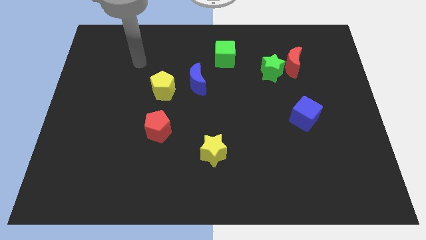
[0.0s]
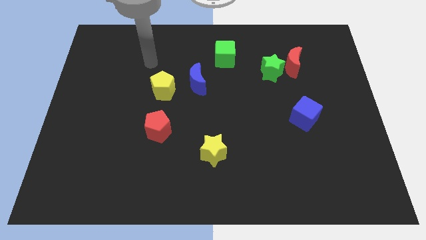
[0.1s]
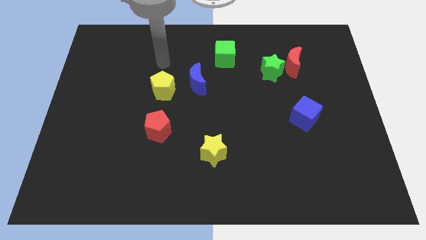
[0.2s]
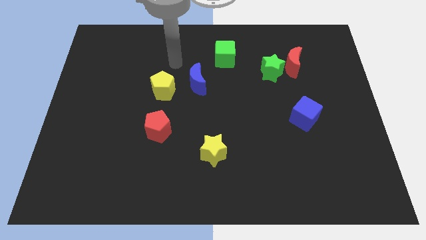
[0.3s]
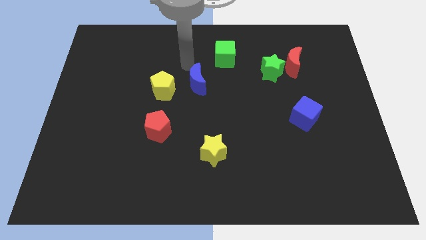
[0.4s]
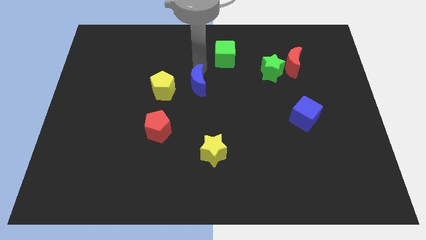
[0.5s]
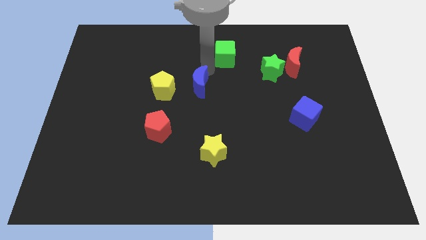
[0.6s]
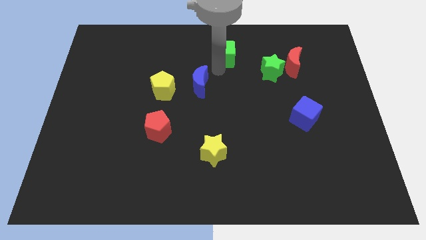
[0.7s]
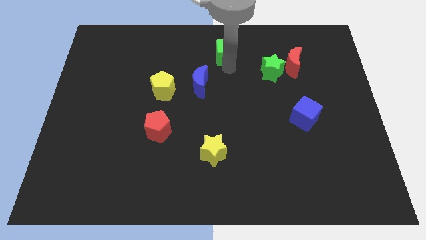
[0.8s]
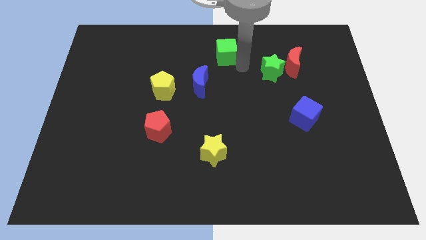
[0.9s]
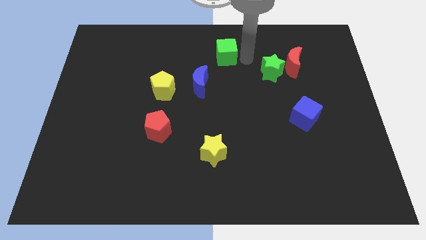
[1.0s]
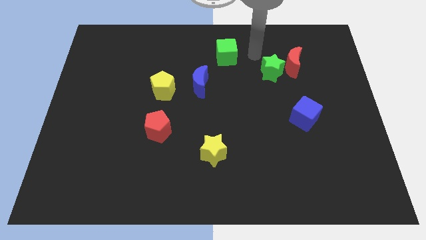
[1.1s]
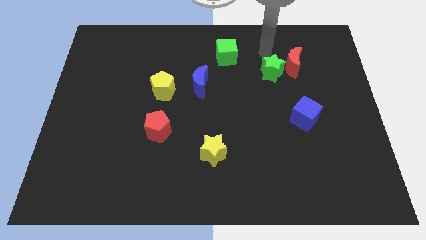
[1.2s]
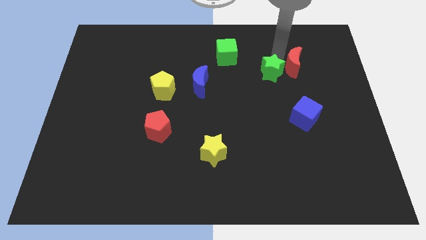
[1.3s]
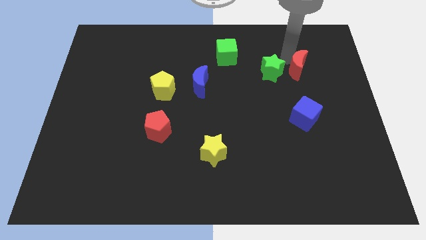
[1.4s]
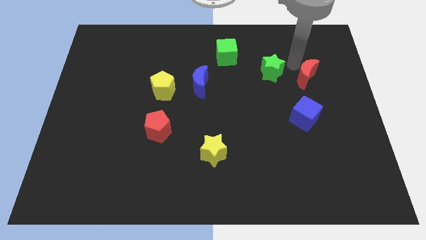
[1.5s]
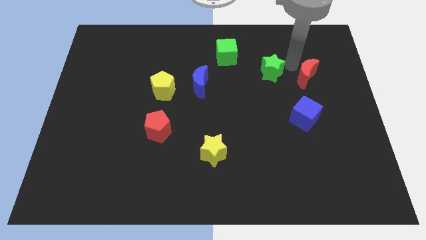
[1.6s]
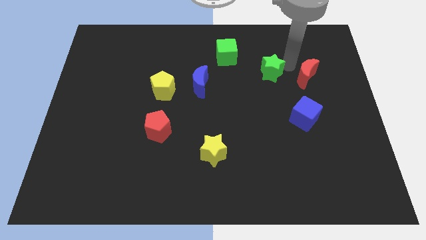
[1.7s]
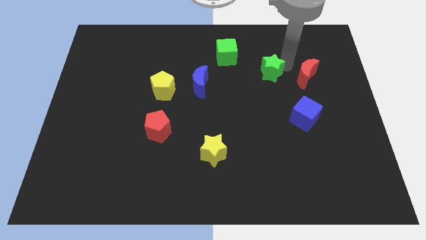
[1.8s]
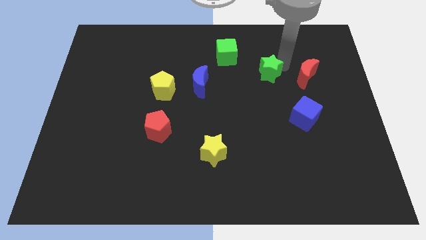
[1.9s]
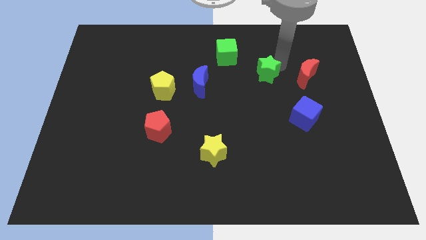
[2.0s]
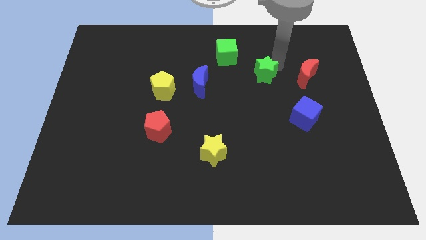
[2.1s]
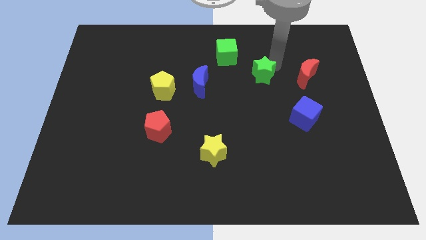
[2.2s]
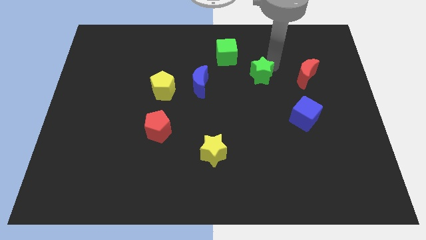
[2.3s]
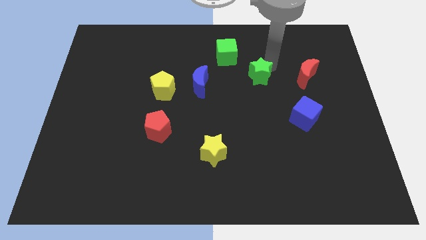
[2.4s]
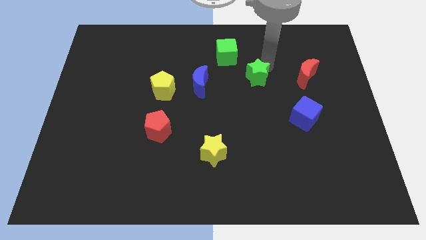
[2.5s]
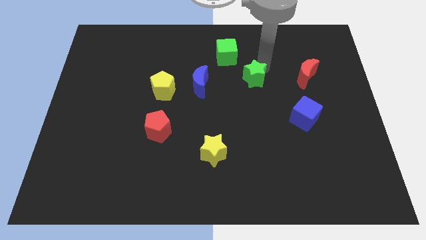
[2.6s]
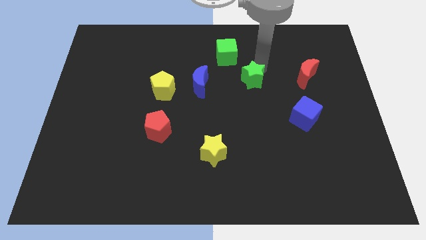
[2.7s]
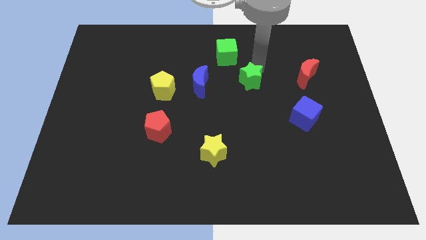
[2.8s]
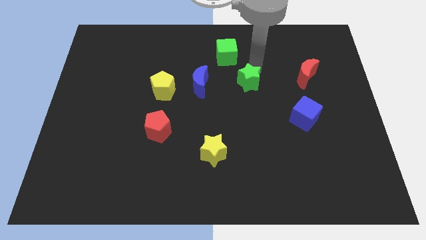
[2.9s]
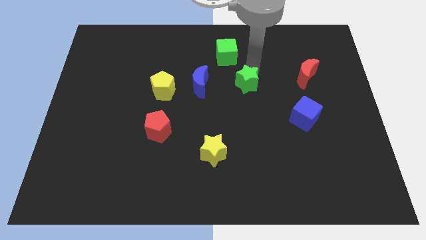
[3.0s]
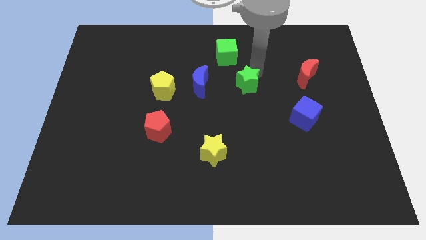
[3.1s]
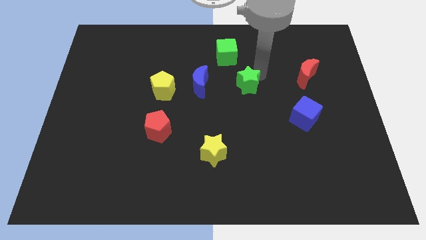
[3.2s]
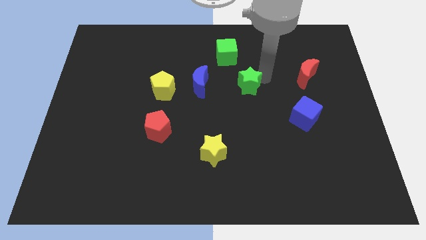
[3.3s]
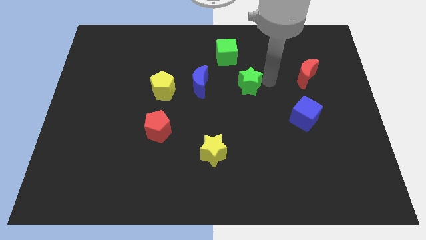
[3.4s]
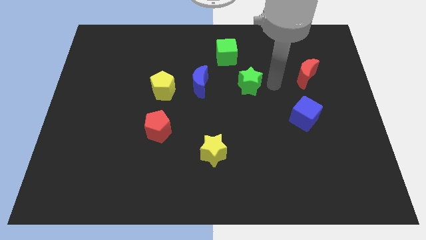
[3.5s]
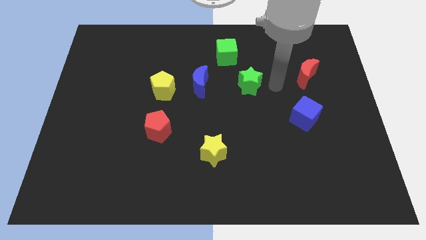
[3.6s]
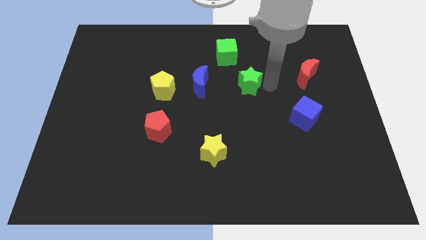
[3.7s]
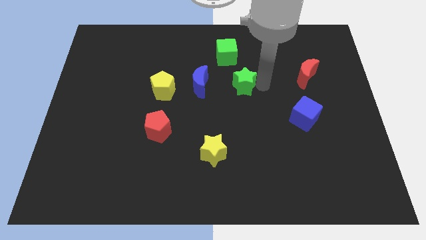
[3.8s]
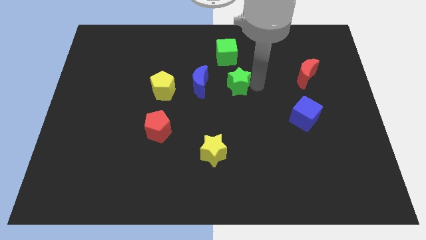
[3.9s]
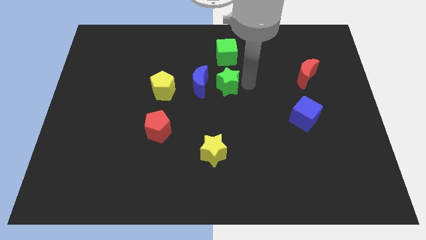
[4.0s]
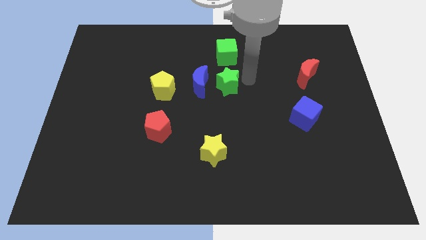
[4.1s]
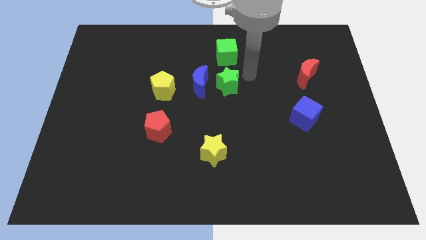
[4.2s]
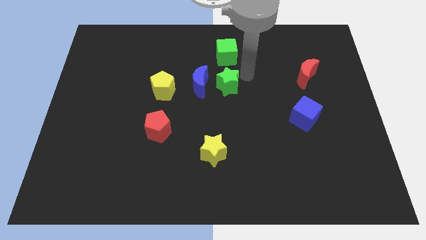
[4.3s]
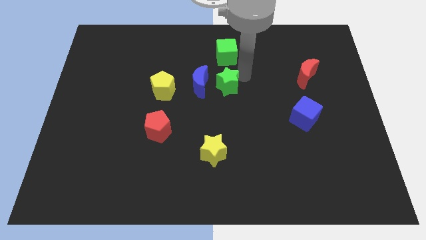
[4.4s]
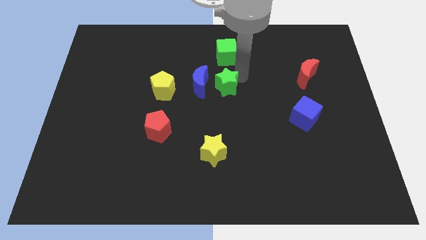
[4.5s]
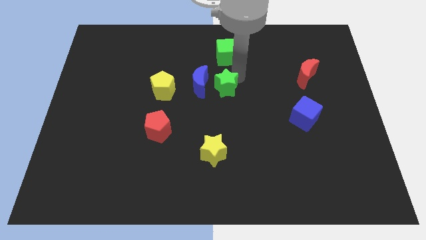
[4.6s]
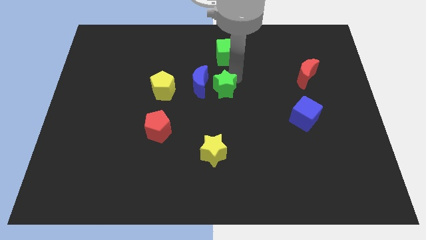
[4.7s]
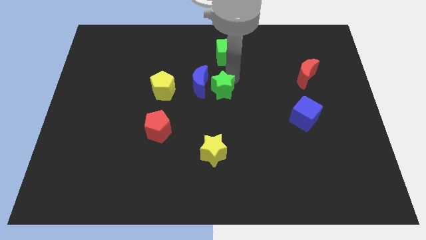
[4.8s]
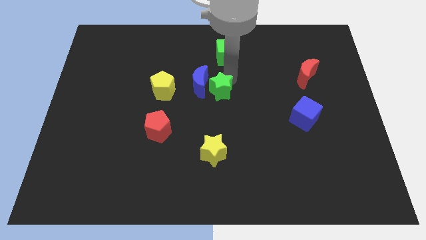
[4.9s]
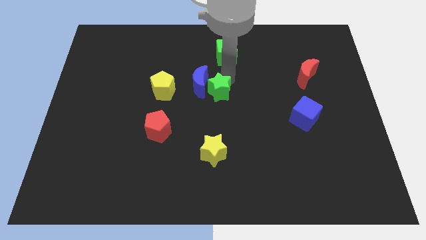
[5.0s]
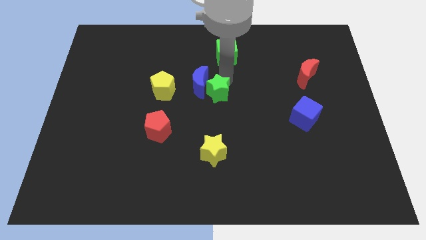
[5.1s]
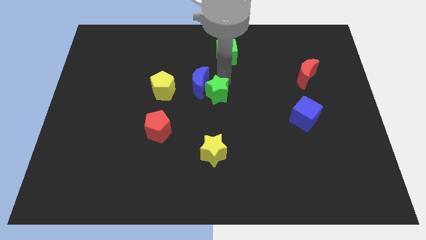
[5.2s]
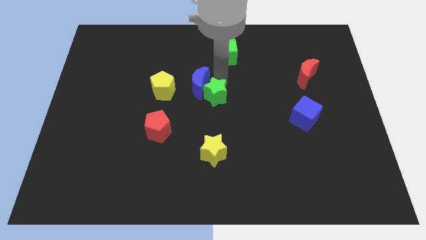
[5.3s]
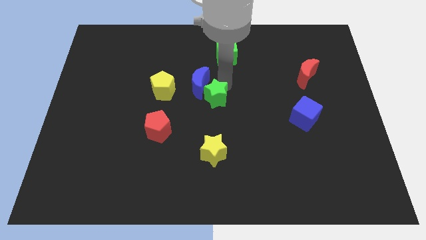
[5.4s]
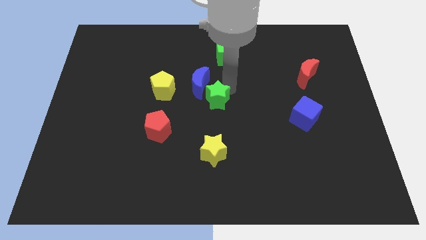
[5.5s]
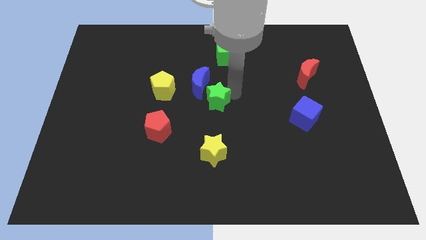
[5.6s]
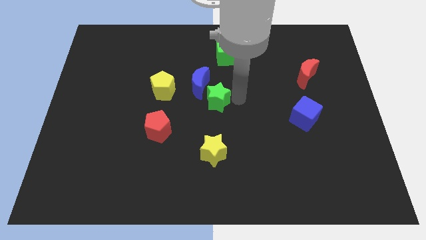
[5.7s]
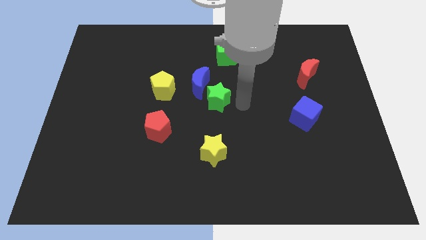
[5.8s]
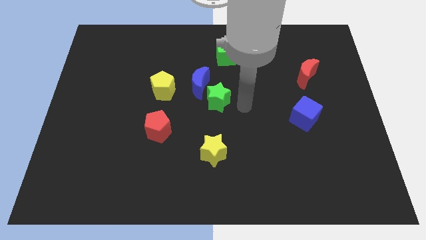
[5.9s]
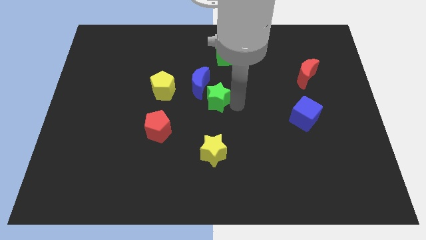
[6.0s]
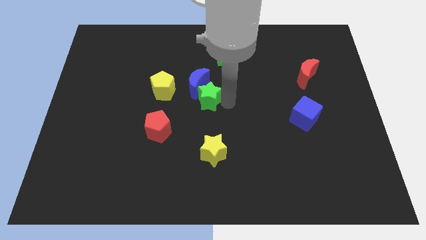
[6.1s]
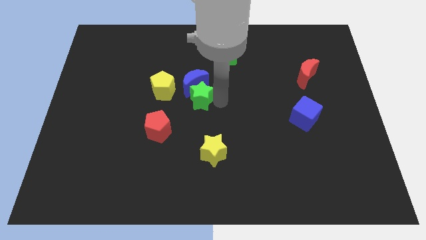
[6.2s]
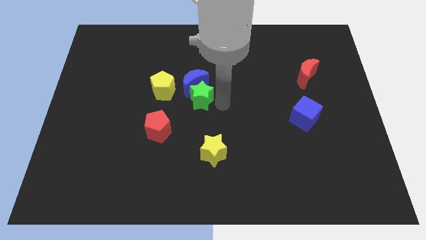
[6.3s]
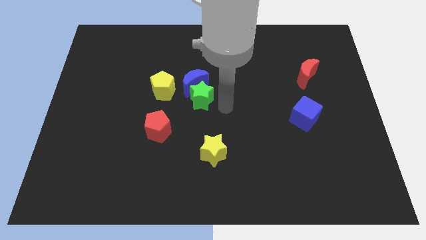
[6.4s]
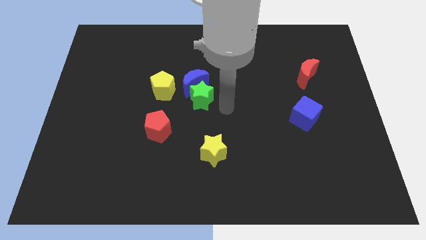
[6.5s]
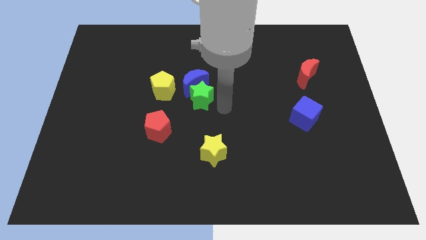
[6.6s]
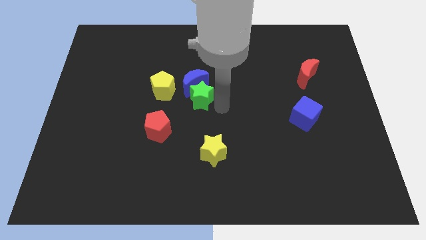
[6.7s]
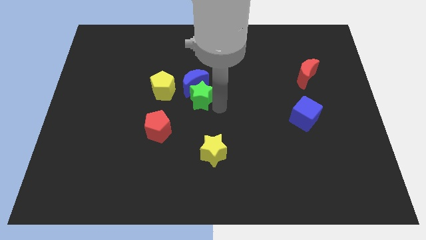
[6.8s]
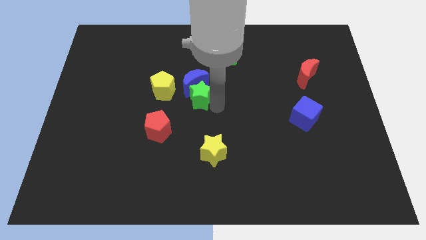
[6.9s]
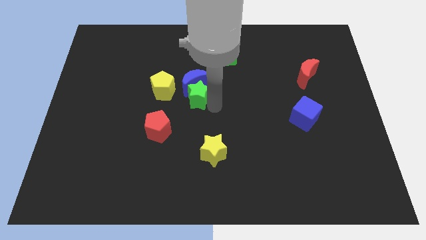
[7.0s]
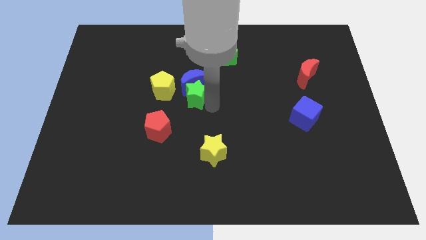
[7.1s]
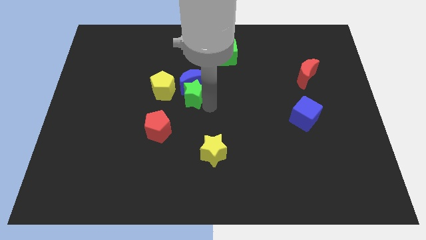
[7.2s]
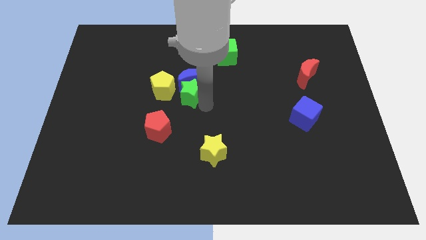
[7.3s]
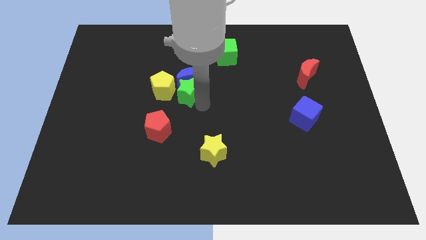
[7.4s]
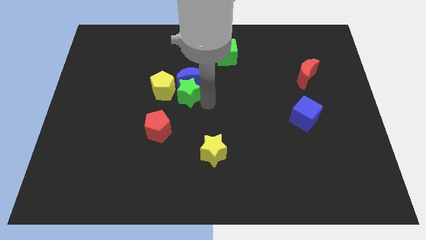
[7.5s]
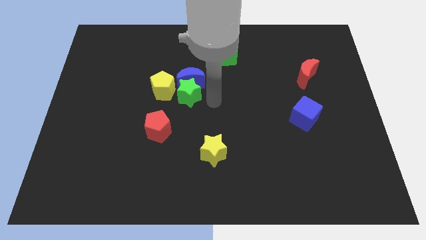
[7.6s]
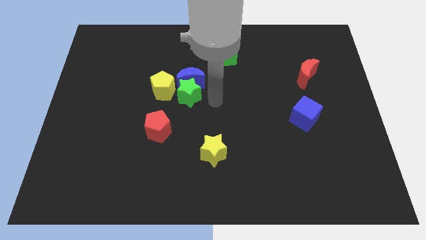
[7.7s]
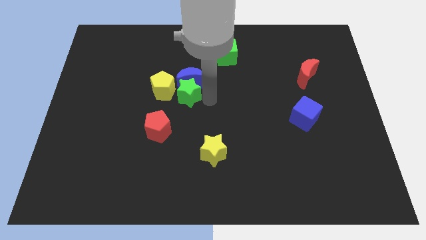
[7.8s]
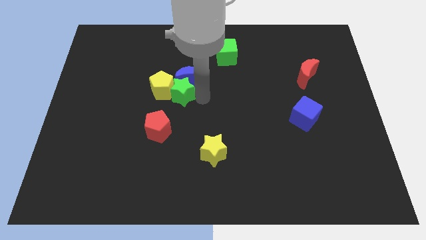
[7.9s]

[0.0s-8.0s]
push the green star next to the yellow pentagon
